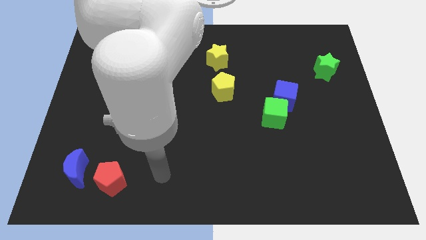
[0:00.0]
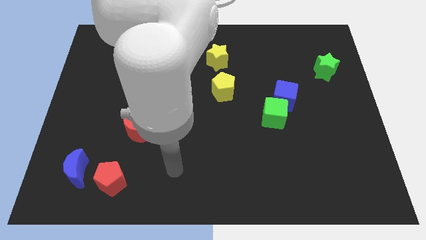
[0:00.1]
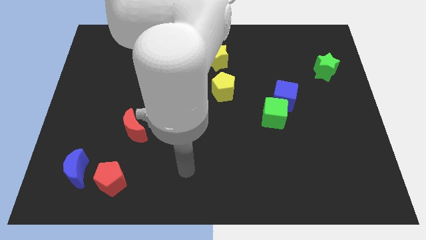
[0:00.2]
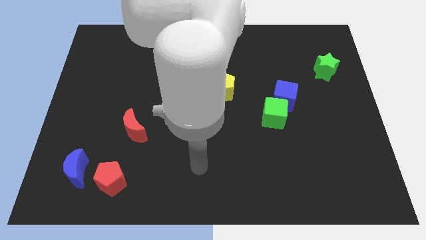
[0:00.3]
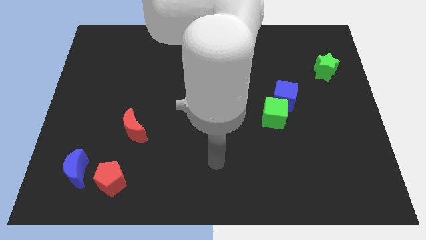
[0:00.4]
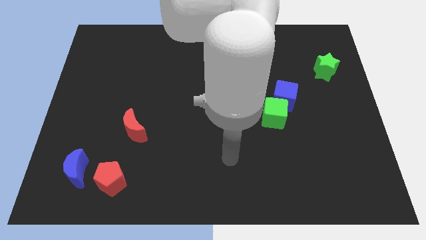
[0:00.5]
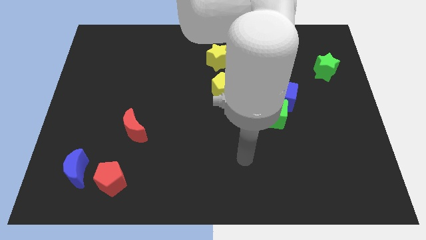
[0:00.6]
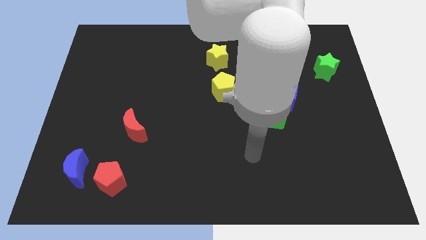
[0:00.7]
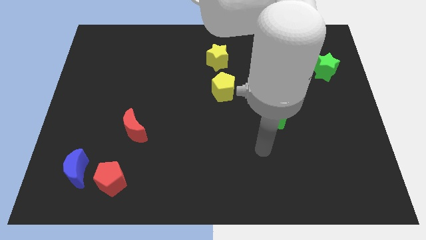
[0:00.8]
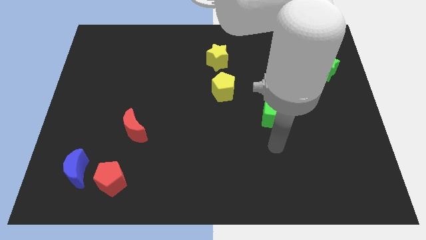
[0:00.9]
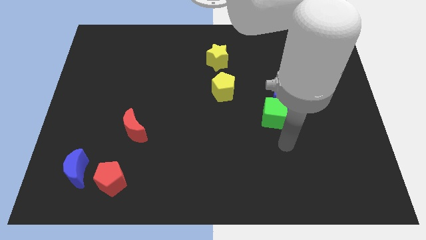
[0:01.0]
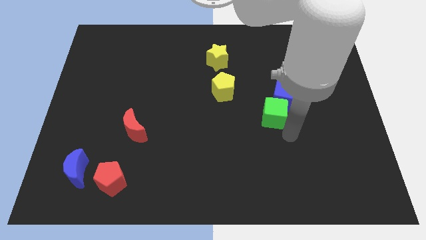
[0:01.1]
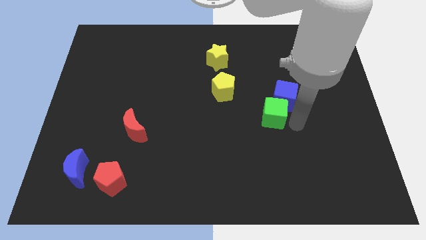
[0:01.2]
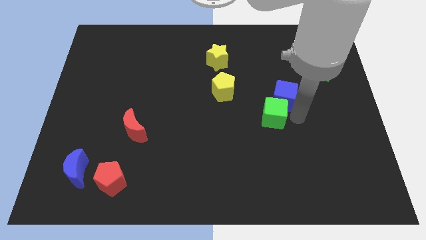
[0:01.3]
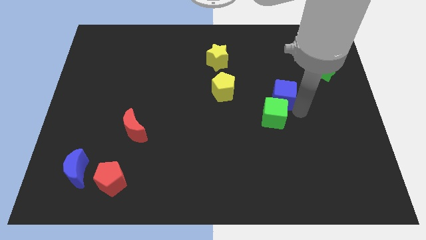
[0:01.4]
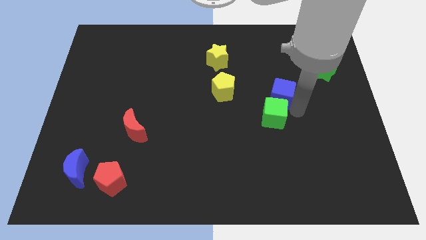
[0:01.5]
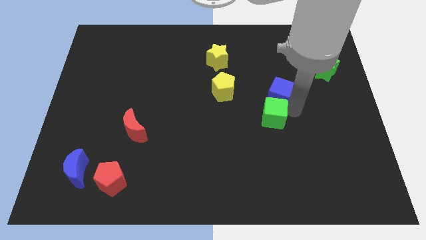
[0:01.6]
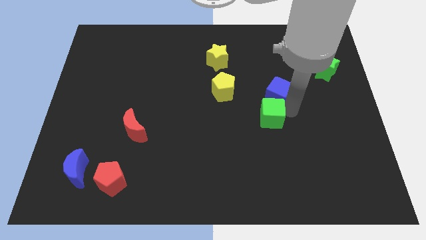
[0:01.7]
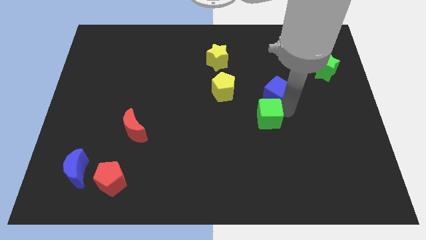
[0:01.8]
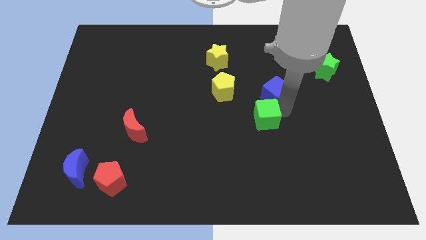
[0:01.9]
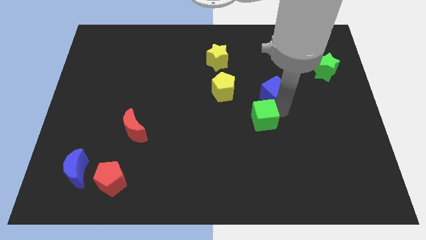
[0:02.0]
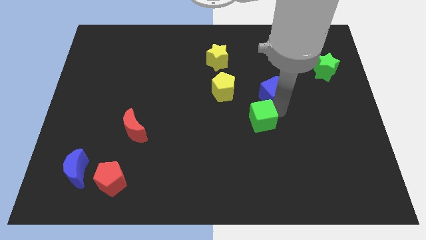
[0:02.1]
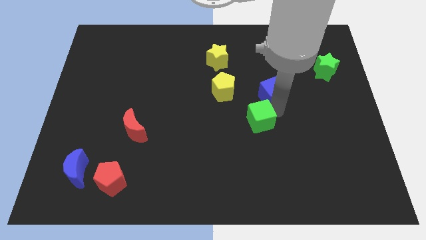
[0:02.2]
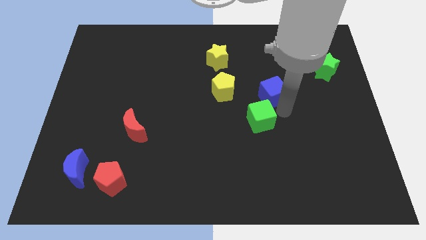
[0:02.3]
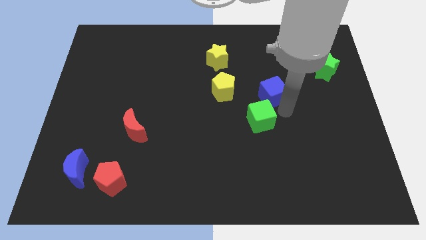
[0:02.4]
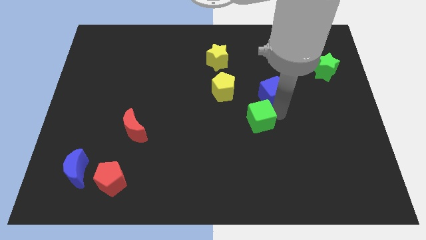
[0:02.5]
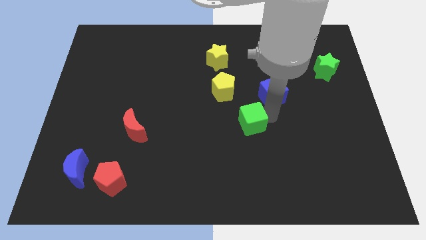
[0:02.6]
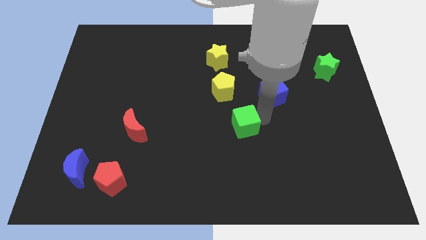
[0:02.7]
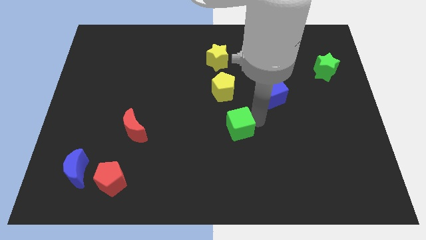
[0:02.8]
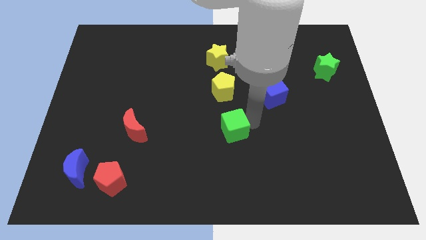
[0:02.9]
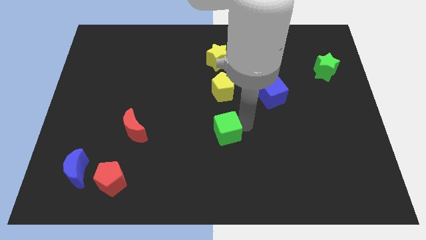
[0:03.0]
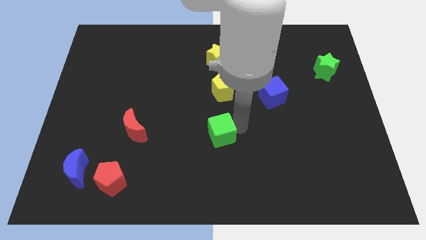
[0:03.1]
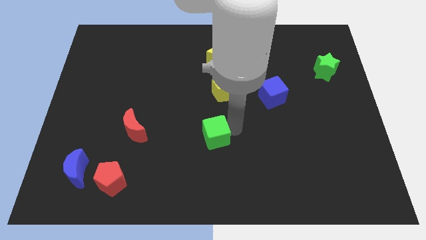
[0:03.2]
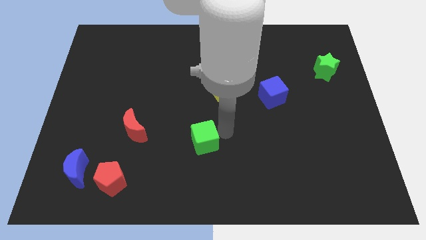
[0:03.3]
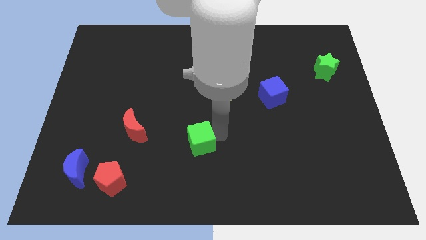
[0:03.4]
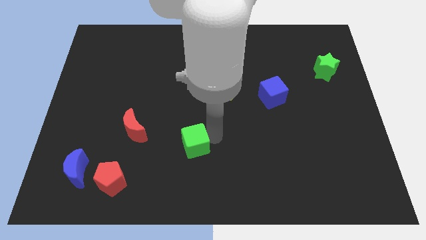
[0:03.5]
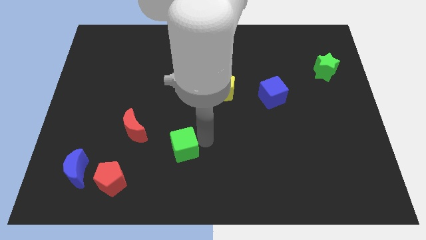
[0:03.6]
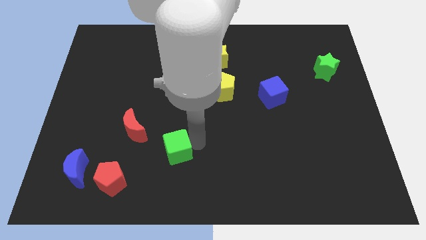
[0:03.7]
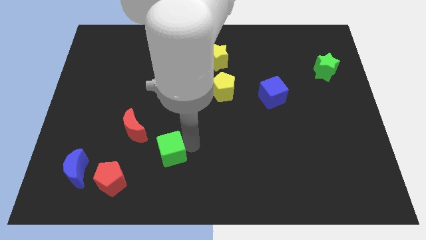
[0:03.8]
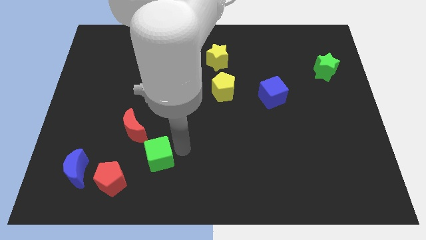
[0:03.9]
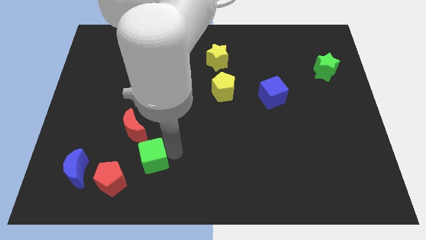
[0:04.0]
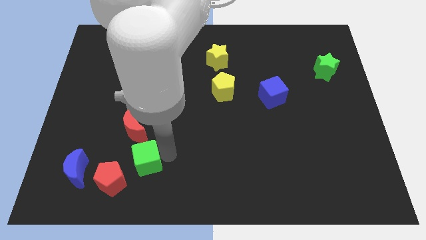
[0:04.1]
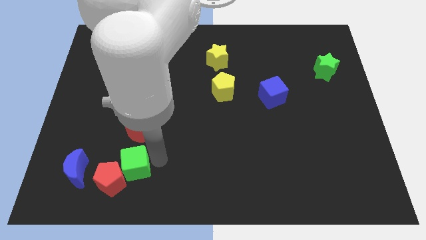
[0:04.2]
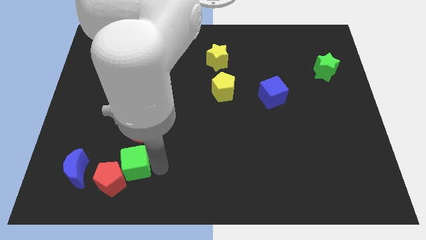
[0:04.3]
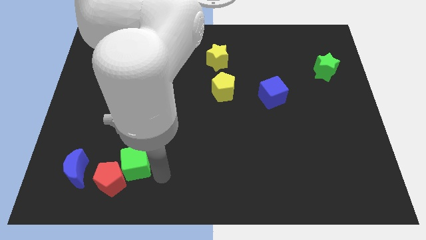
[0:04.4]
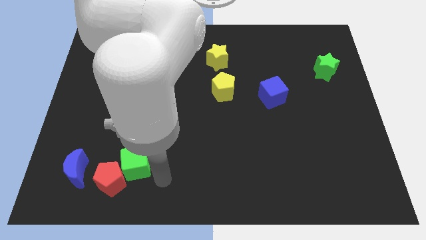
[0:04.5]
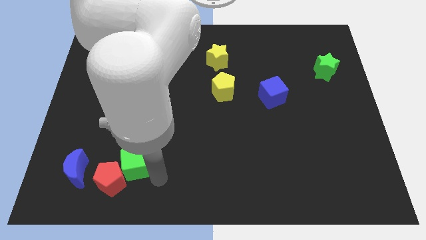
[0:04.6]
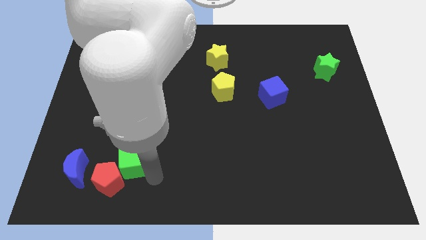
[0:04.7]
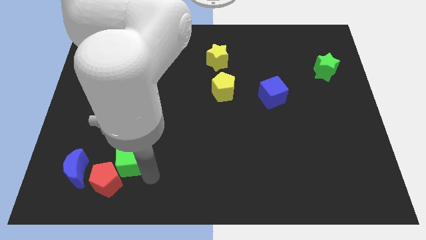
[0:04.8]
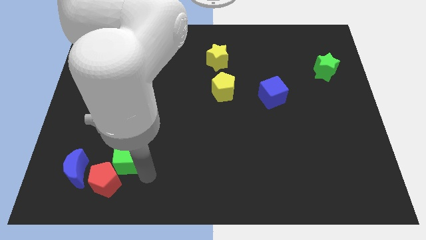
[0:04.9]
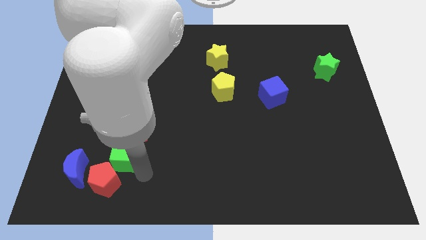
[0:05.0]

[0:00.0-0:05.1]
put the green cube to the top right side of the blue moon

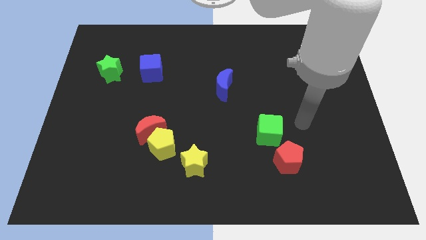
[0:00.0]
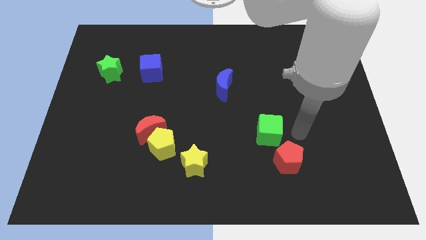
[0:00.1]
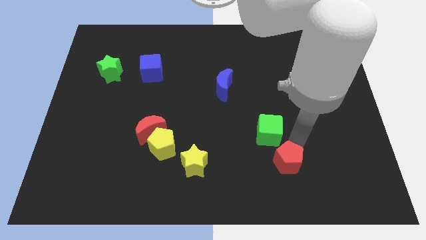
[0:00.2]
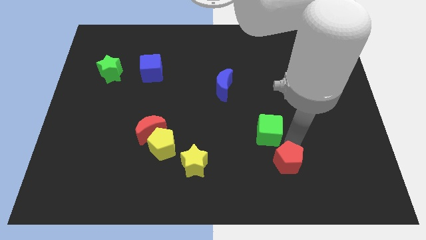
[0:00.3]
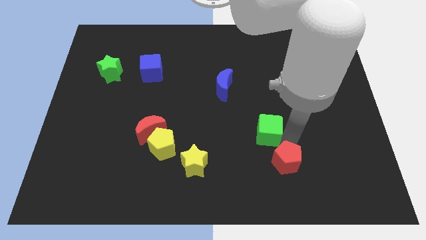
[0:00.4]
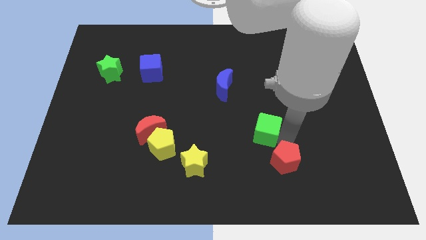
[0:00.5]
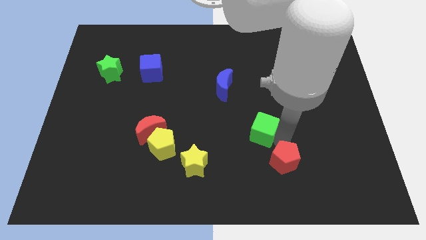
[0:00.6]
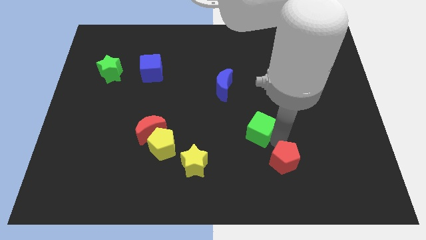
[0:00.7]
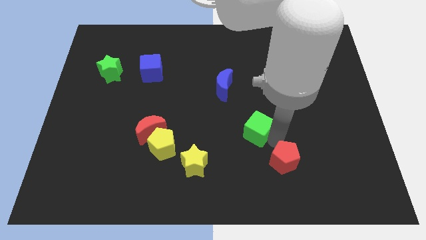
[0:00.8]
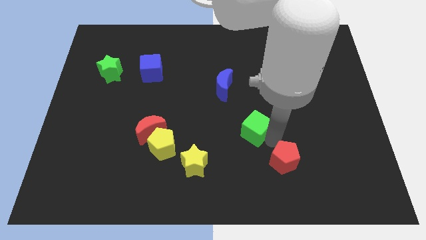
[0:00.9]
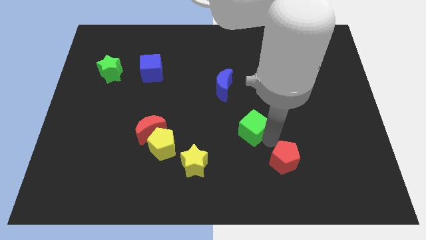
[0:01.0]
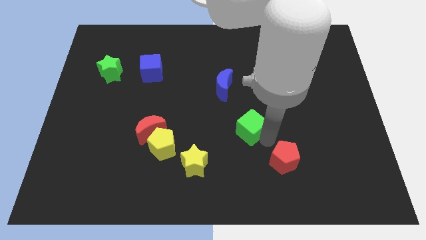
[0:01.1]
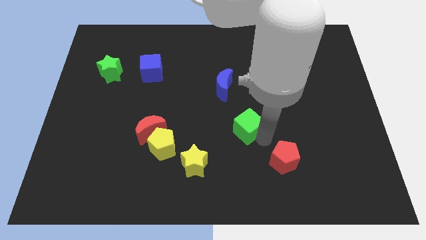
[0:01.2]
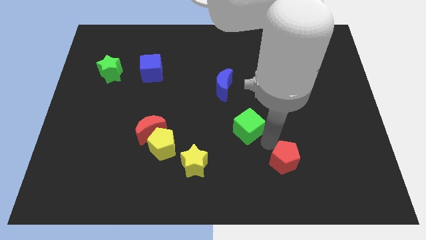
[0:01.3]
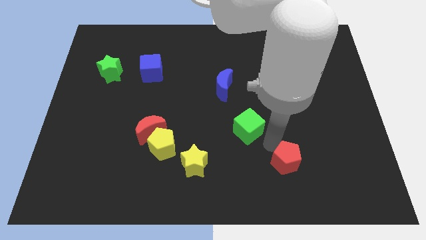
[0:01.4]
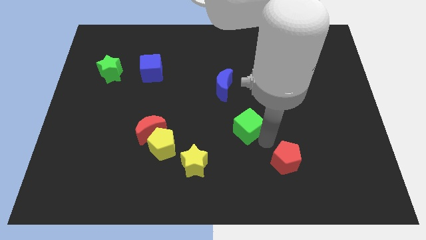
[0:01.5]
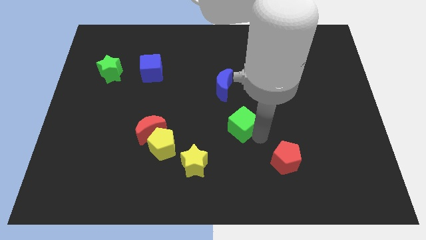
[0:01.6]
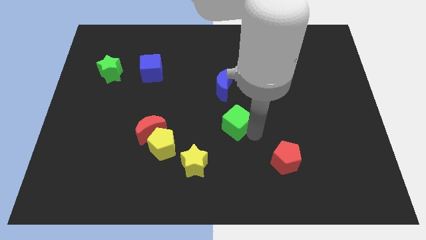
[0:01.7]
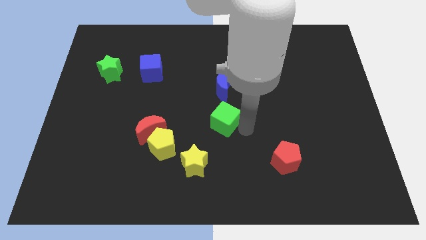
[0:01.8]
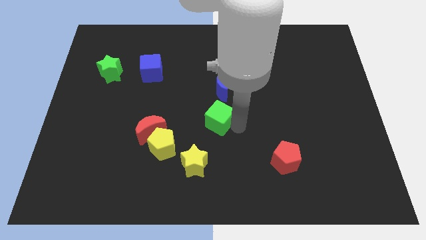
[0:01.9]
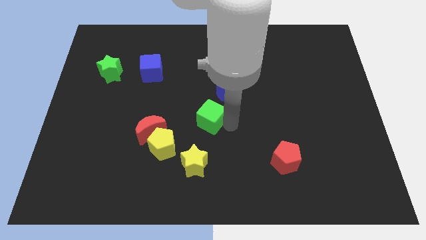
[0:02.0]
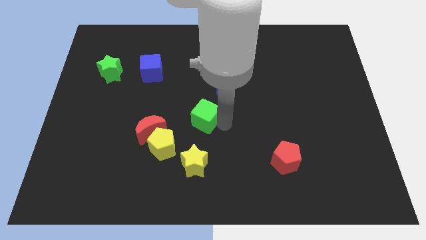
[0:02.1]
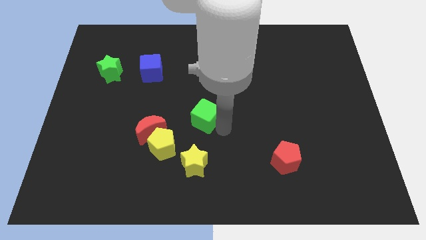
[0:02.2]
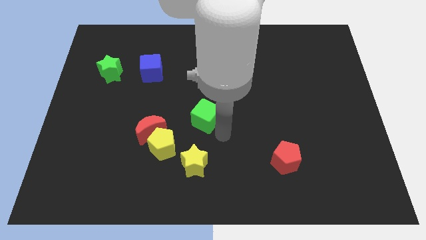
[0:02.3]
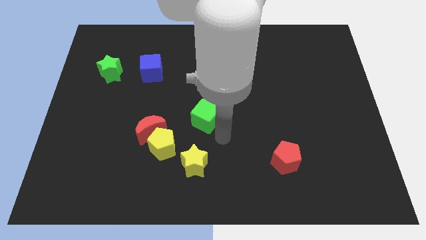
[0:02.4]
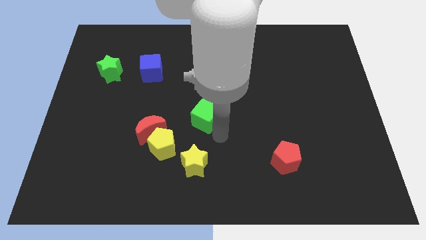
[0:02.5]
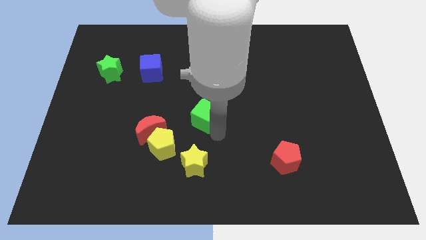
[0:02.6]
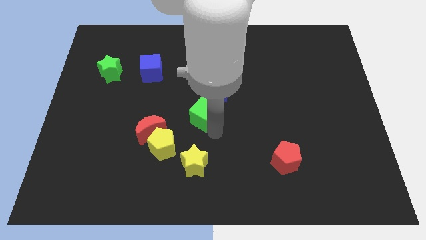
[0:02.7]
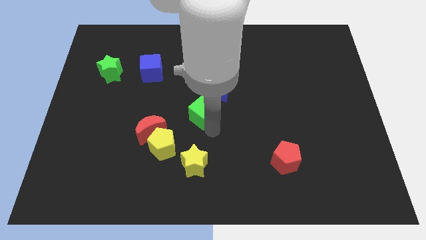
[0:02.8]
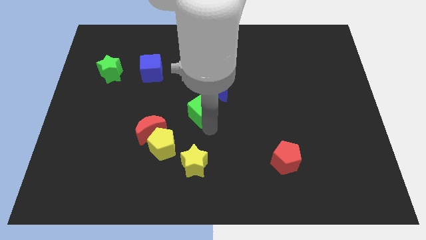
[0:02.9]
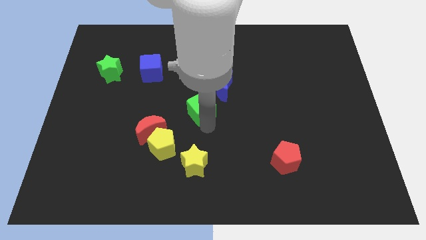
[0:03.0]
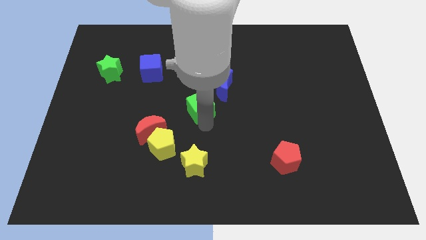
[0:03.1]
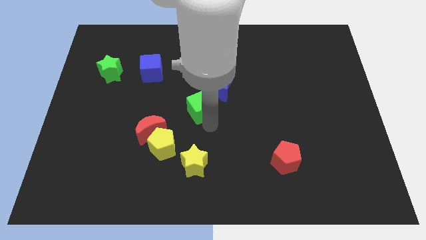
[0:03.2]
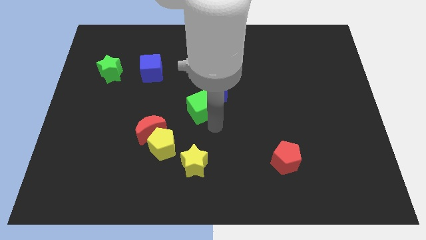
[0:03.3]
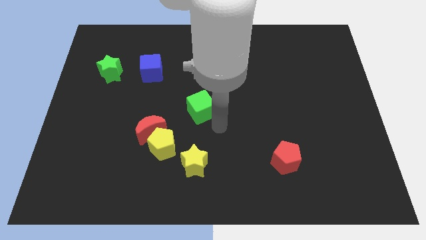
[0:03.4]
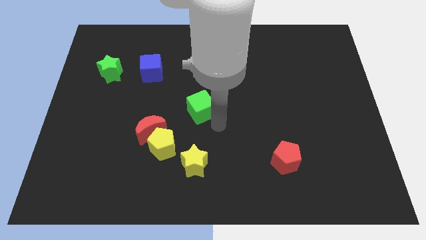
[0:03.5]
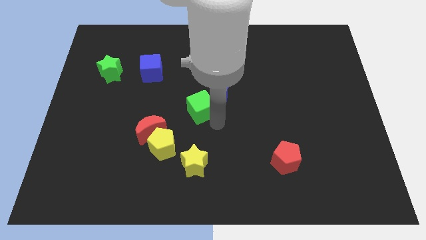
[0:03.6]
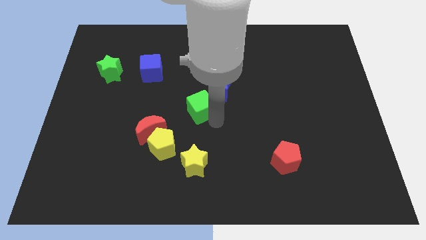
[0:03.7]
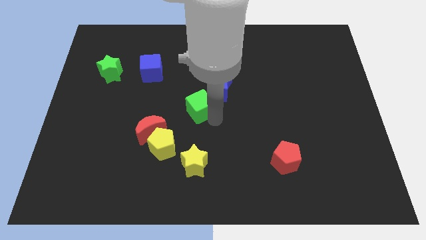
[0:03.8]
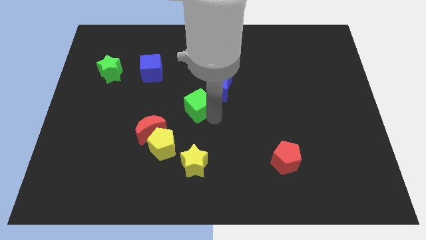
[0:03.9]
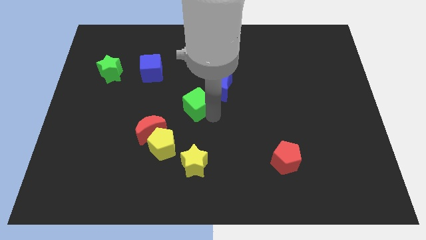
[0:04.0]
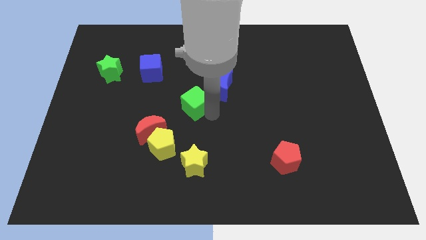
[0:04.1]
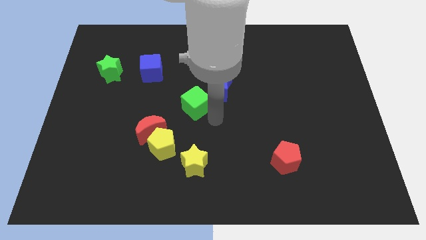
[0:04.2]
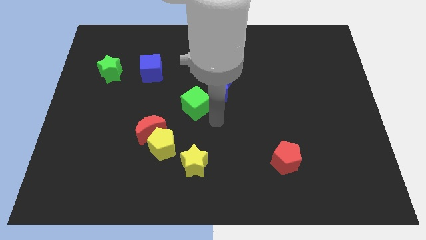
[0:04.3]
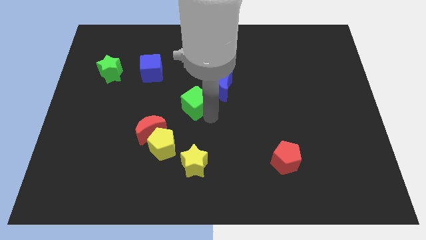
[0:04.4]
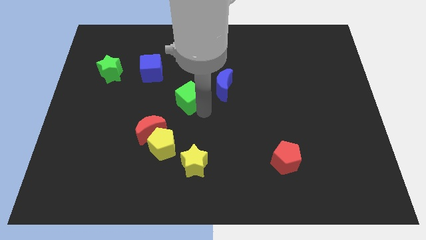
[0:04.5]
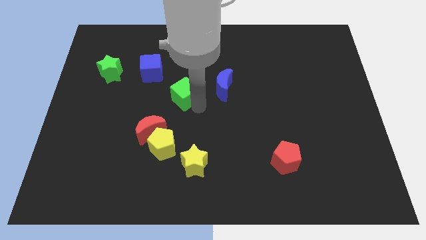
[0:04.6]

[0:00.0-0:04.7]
push the green cube to the bottom right of the blue cube
